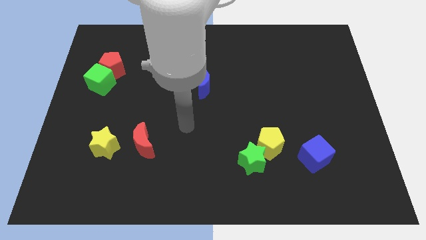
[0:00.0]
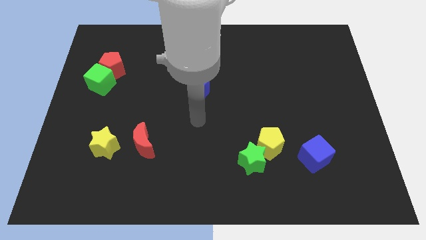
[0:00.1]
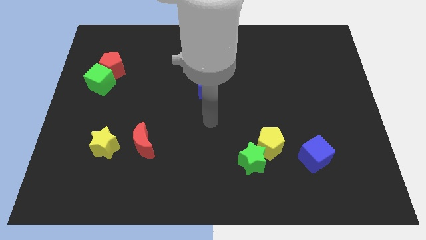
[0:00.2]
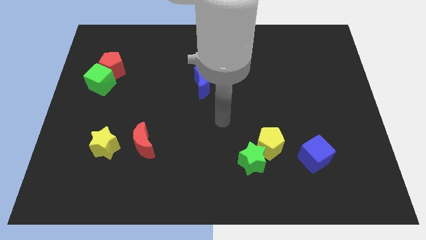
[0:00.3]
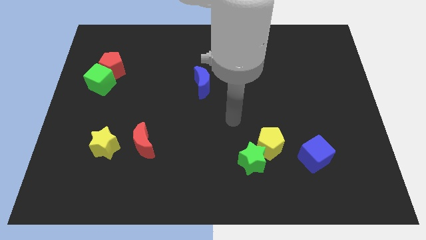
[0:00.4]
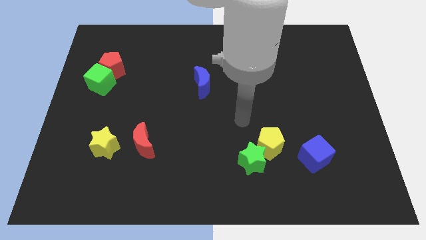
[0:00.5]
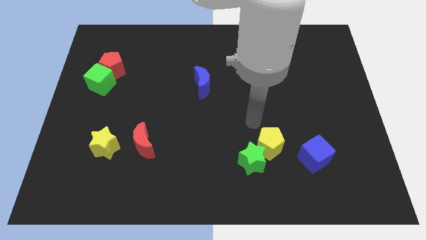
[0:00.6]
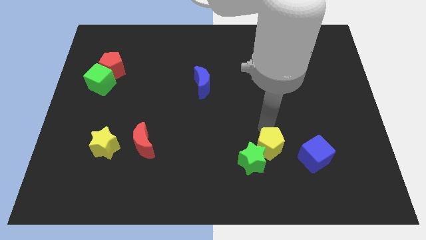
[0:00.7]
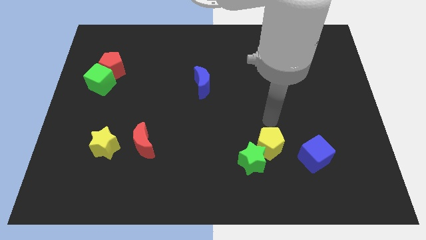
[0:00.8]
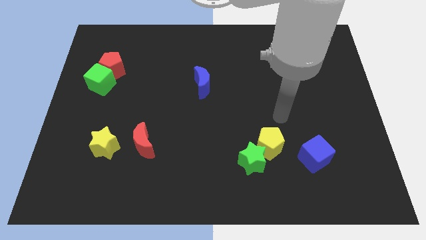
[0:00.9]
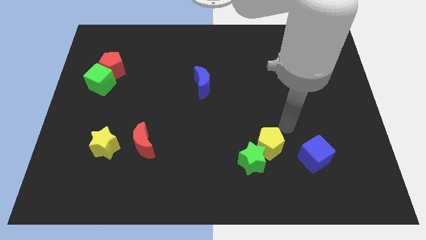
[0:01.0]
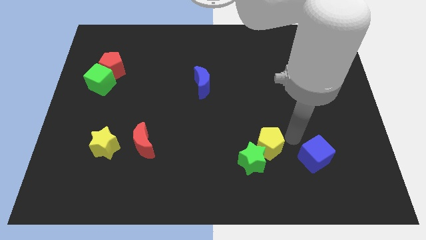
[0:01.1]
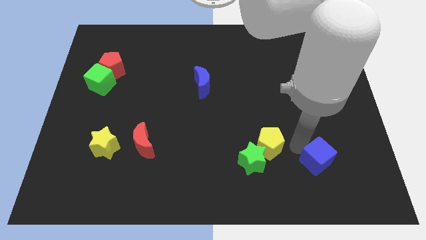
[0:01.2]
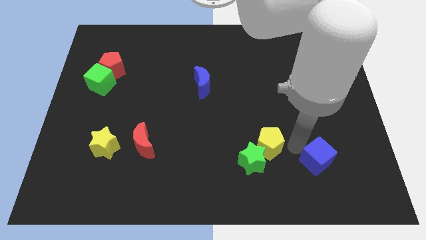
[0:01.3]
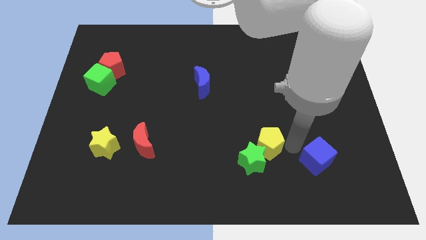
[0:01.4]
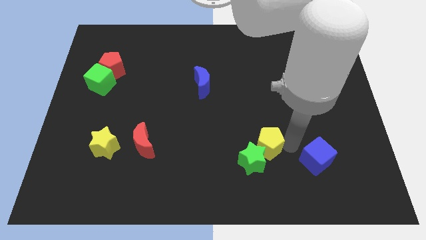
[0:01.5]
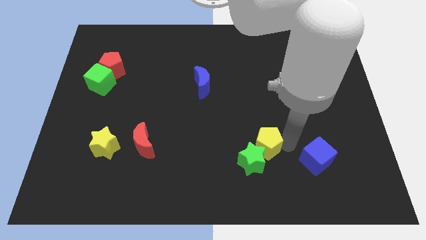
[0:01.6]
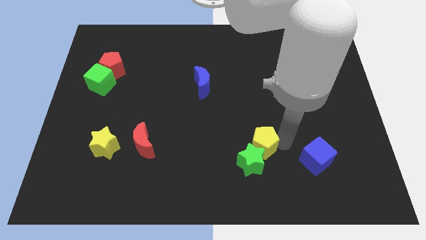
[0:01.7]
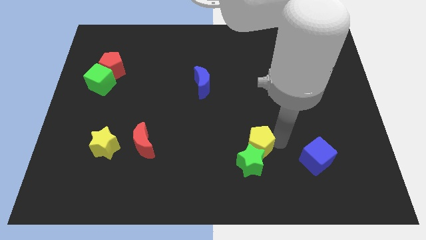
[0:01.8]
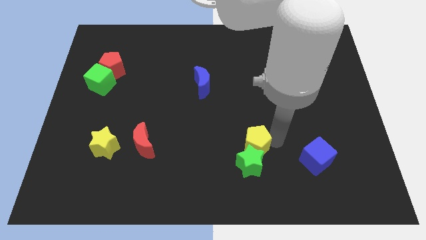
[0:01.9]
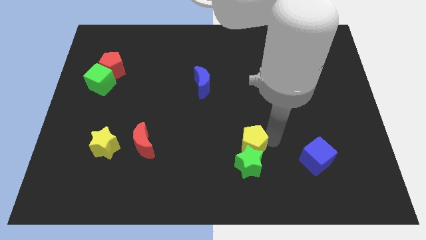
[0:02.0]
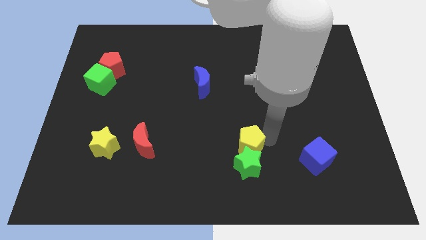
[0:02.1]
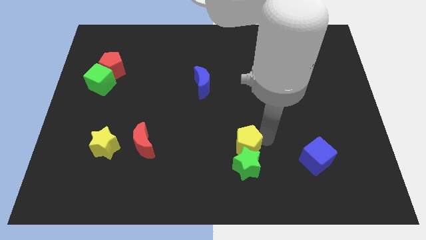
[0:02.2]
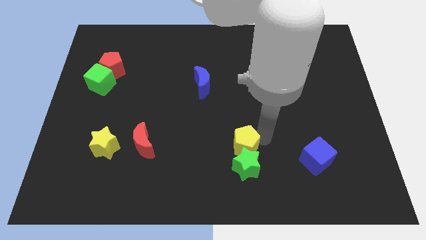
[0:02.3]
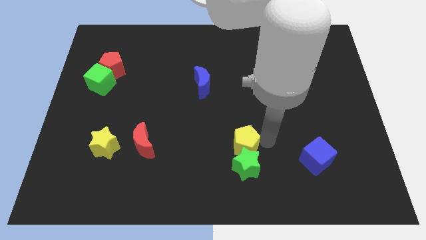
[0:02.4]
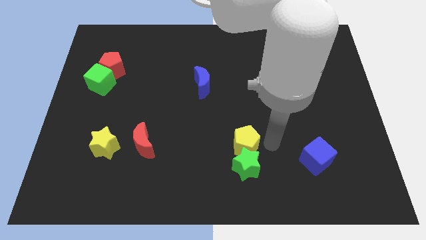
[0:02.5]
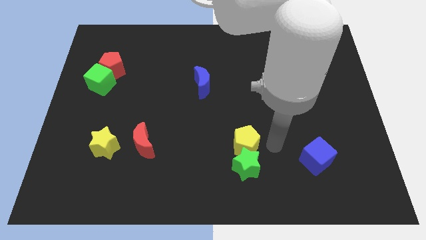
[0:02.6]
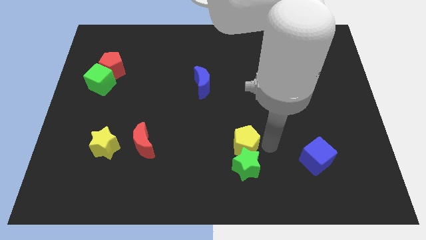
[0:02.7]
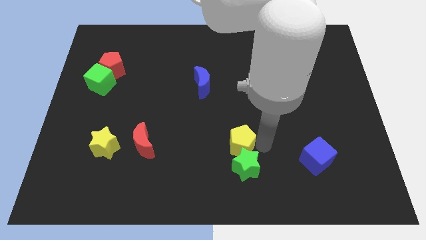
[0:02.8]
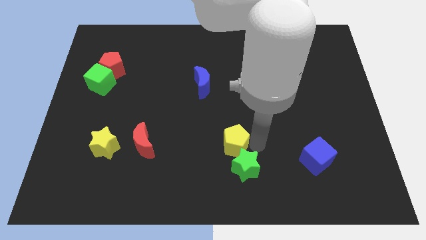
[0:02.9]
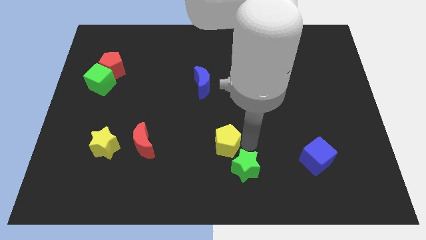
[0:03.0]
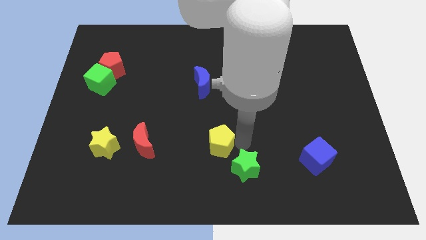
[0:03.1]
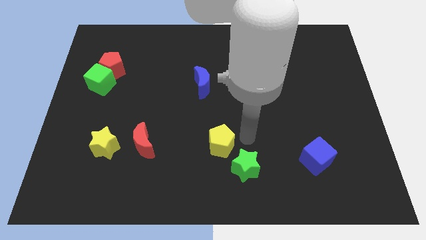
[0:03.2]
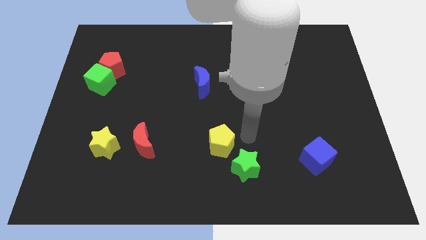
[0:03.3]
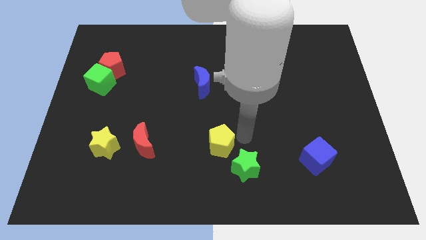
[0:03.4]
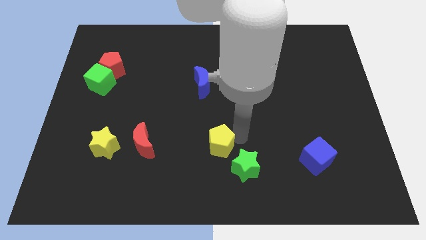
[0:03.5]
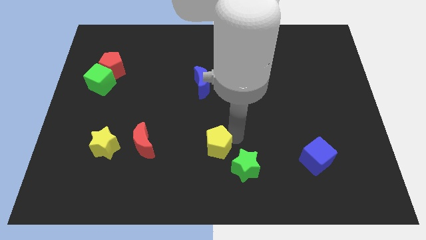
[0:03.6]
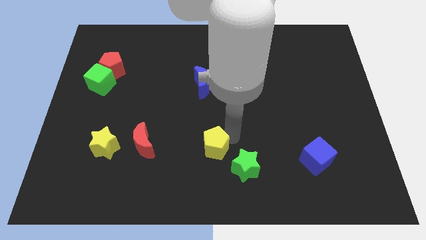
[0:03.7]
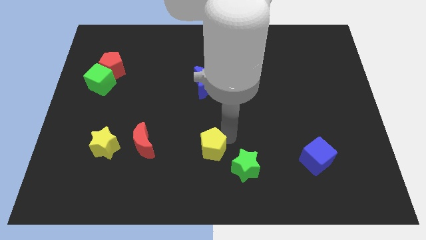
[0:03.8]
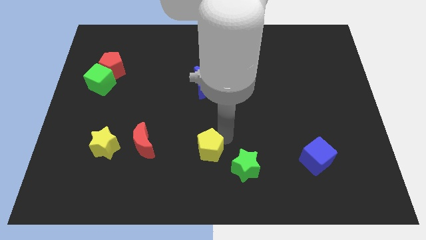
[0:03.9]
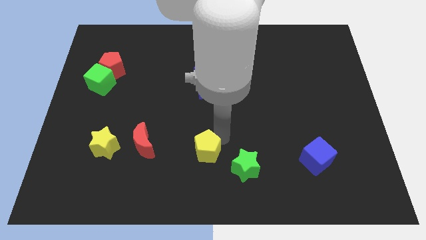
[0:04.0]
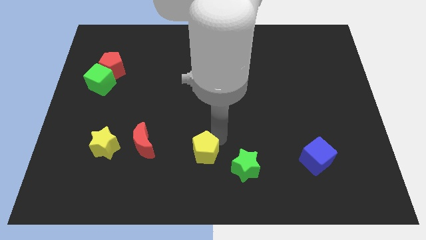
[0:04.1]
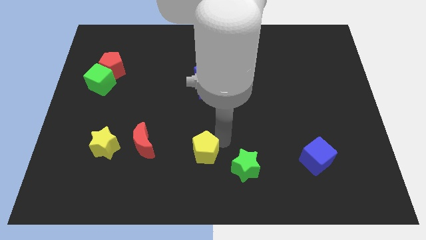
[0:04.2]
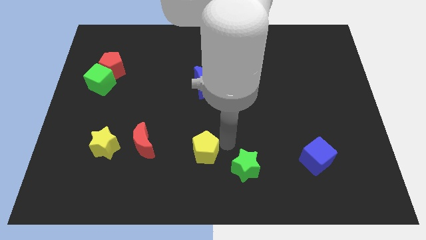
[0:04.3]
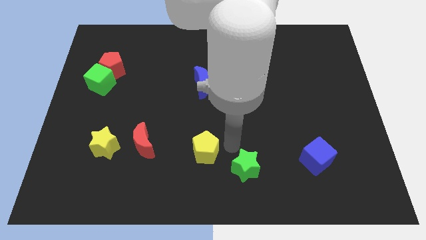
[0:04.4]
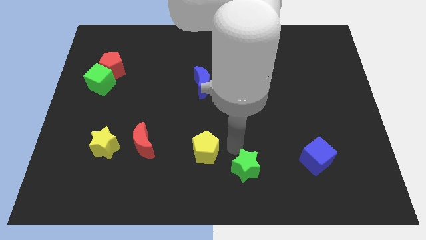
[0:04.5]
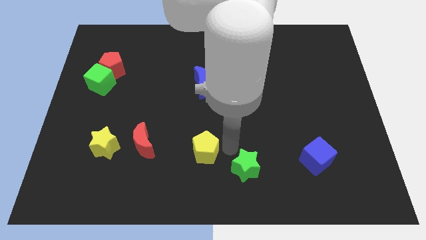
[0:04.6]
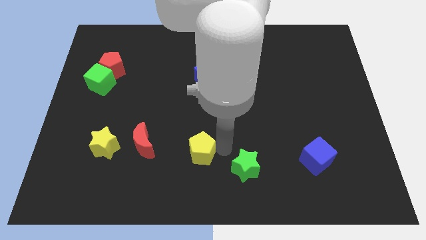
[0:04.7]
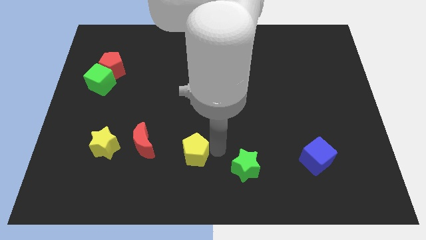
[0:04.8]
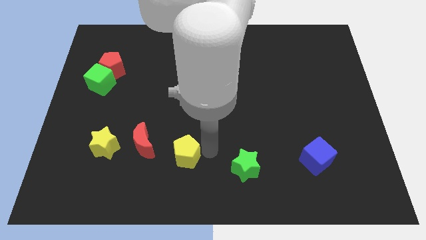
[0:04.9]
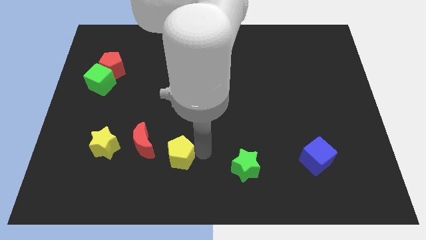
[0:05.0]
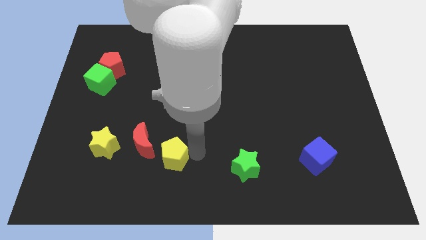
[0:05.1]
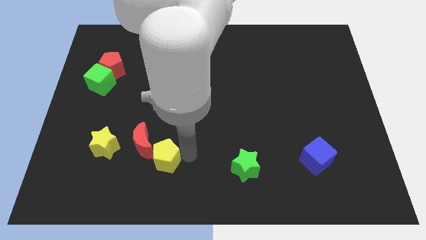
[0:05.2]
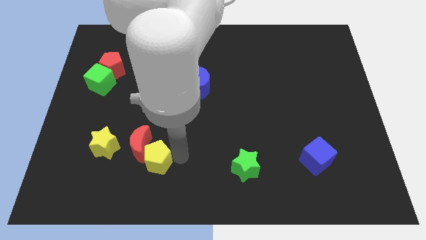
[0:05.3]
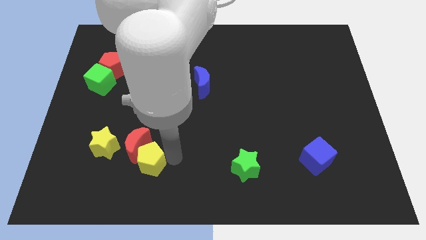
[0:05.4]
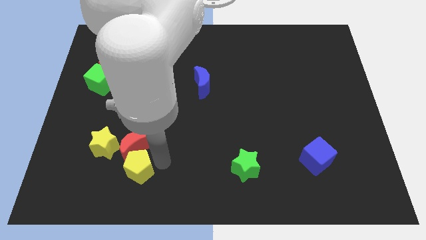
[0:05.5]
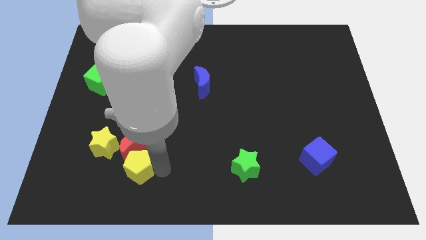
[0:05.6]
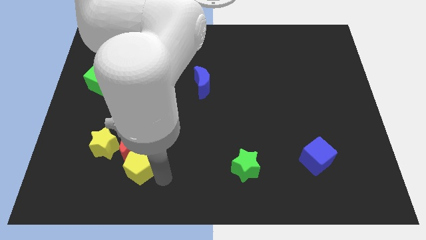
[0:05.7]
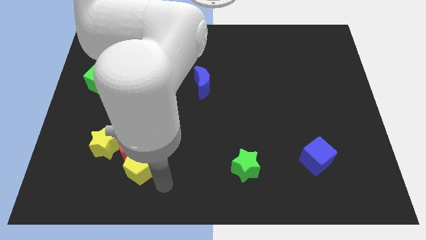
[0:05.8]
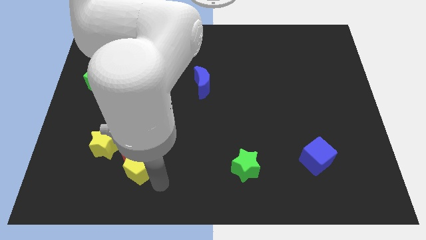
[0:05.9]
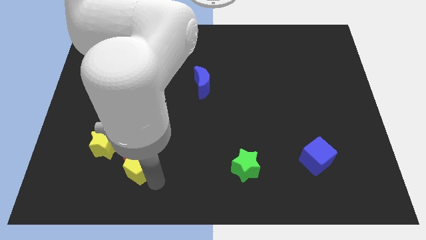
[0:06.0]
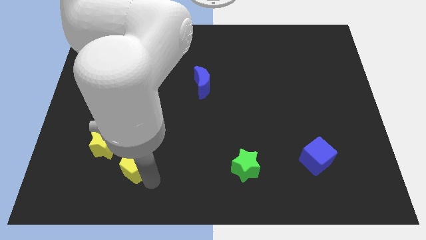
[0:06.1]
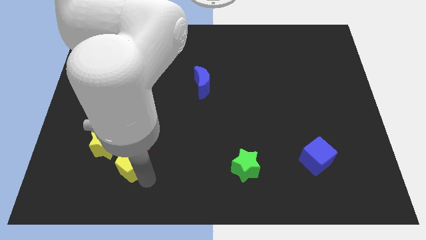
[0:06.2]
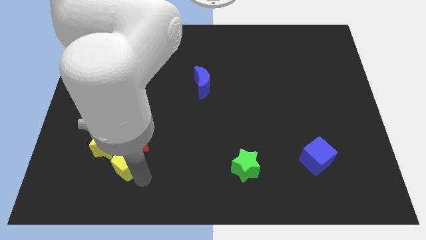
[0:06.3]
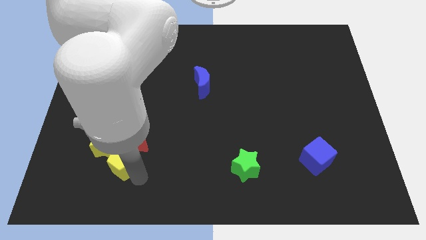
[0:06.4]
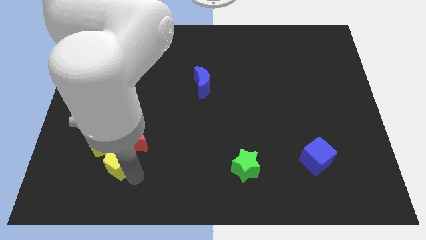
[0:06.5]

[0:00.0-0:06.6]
put the yellow pentagon close to the yellow star

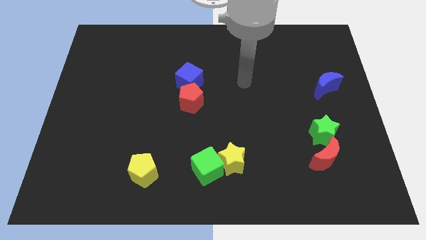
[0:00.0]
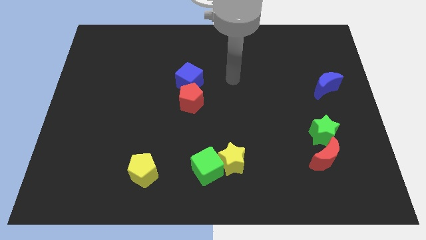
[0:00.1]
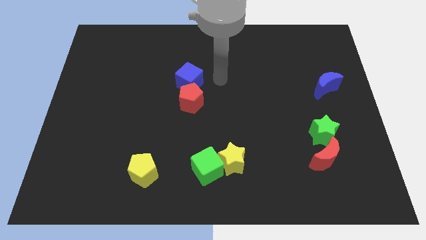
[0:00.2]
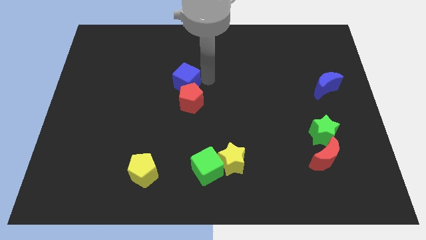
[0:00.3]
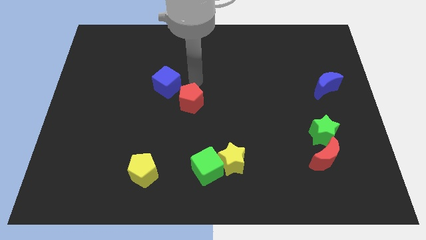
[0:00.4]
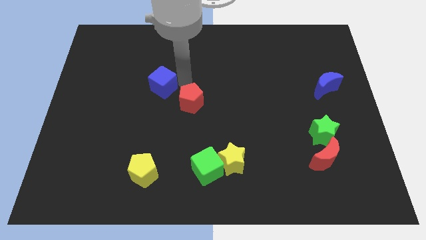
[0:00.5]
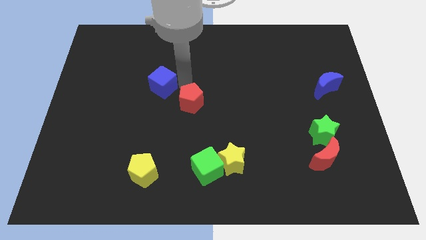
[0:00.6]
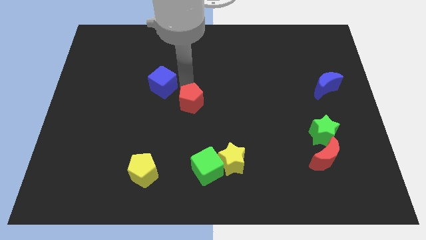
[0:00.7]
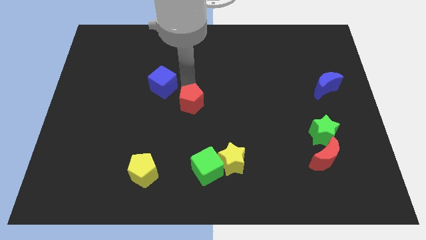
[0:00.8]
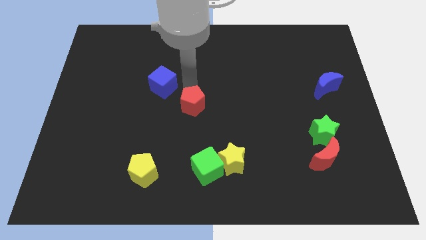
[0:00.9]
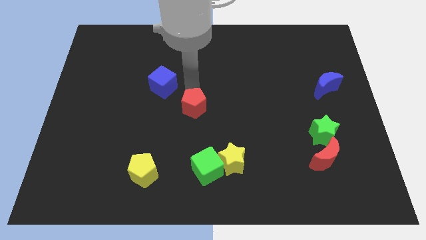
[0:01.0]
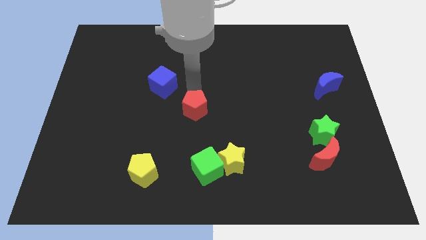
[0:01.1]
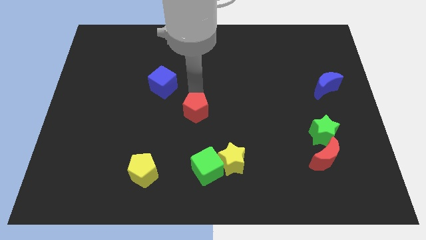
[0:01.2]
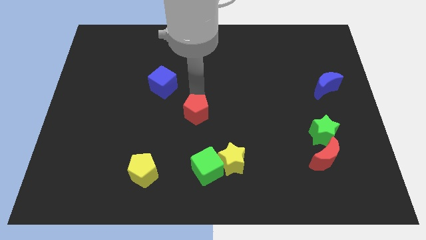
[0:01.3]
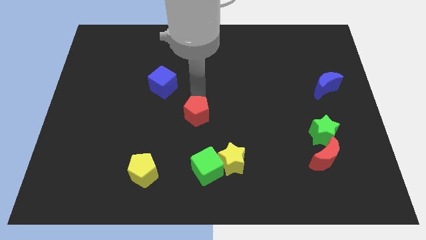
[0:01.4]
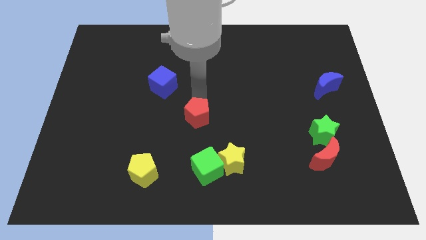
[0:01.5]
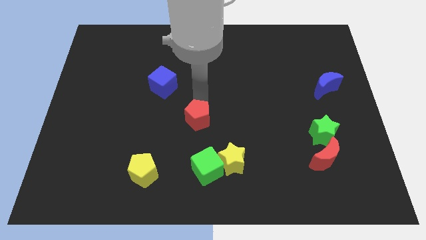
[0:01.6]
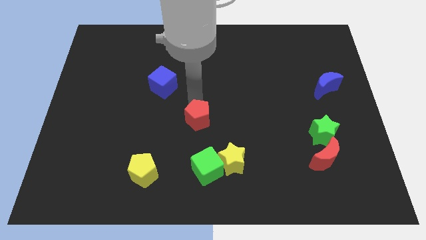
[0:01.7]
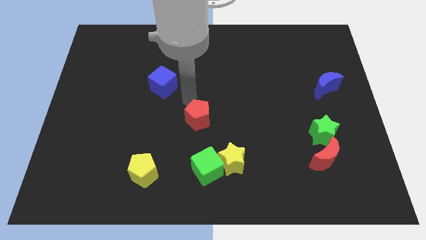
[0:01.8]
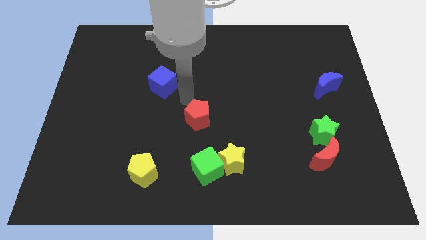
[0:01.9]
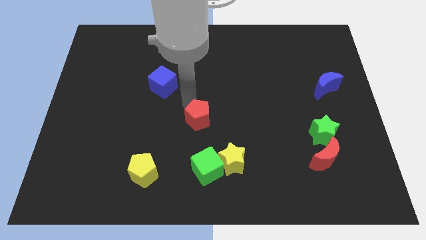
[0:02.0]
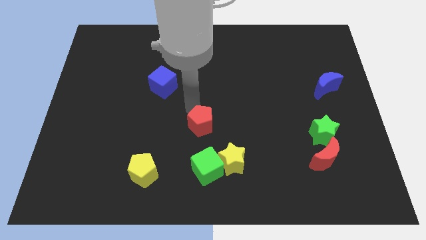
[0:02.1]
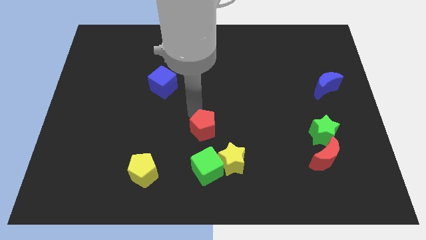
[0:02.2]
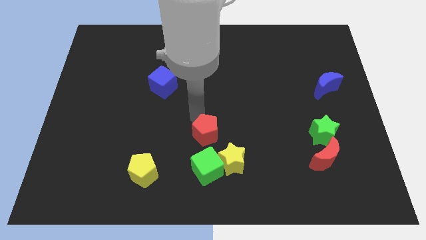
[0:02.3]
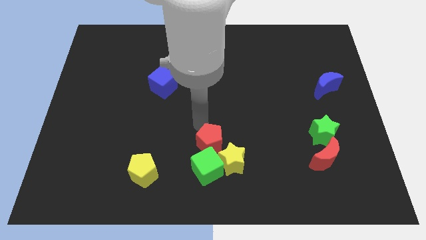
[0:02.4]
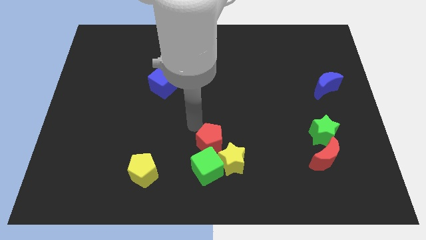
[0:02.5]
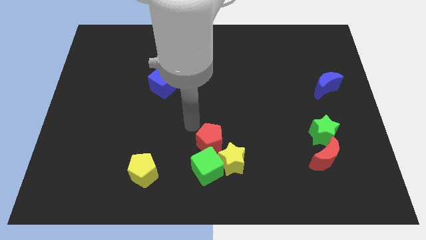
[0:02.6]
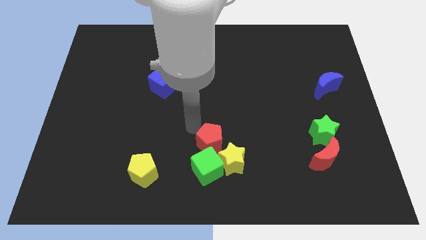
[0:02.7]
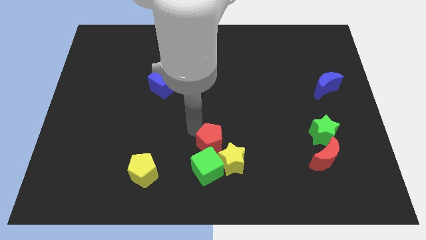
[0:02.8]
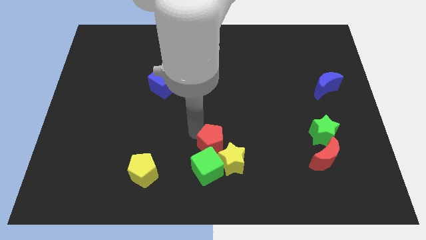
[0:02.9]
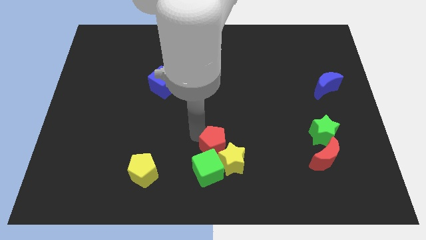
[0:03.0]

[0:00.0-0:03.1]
slide the red pentagon close to the yellow star
